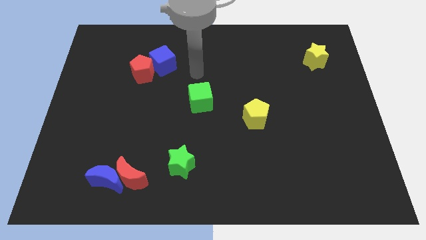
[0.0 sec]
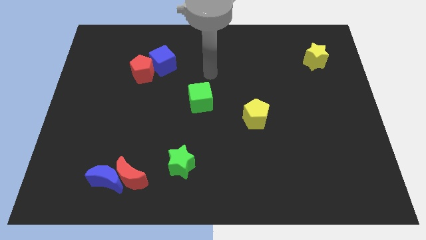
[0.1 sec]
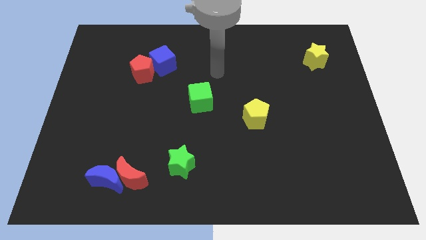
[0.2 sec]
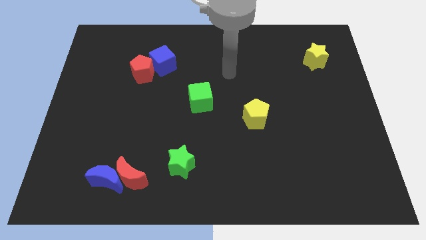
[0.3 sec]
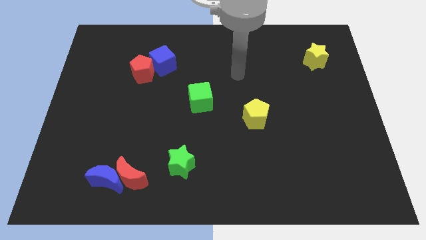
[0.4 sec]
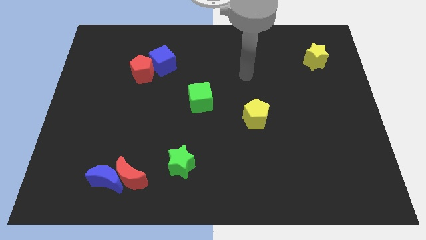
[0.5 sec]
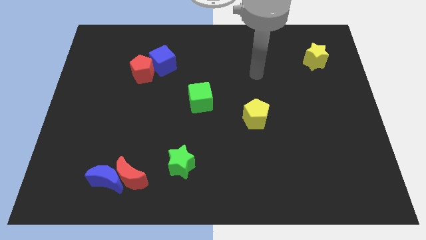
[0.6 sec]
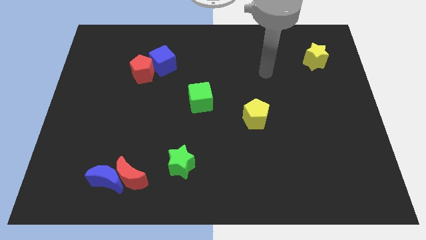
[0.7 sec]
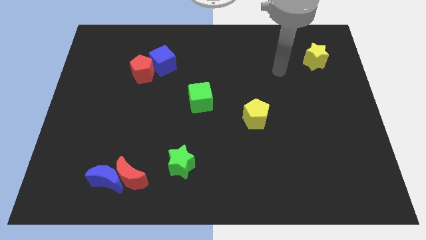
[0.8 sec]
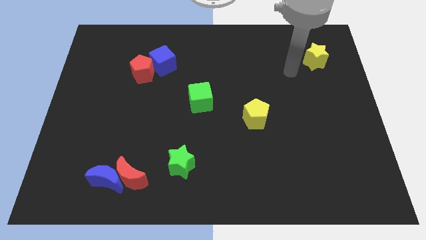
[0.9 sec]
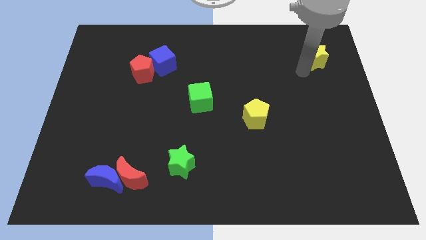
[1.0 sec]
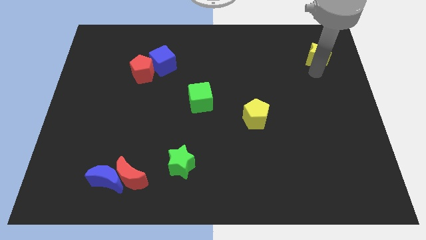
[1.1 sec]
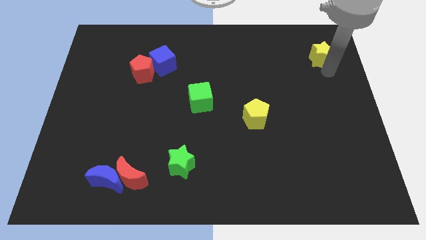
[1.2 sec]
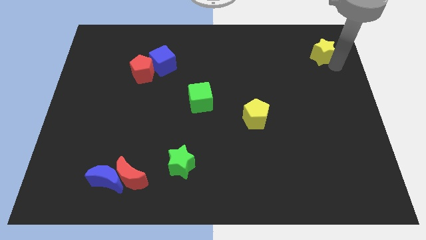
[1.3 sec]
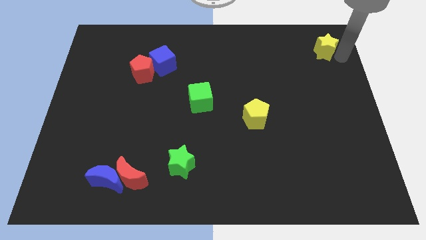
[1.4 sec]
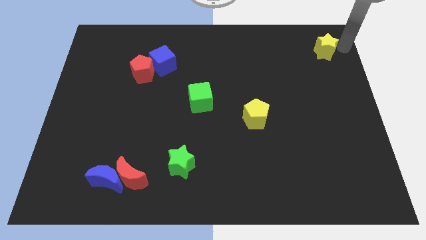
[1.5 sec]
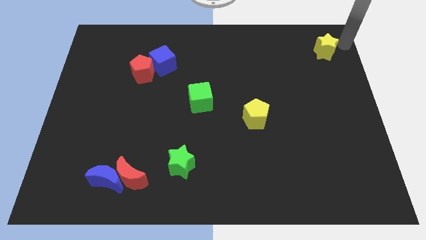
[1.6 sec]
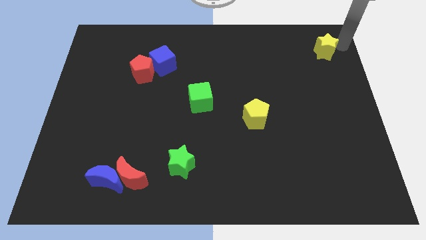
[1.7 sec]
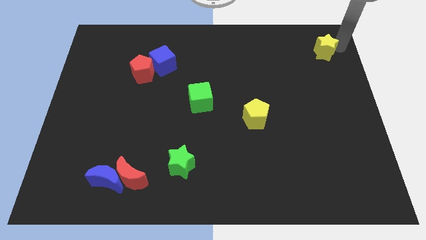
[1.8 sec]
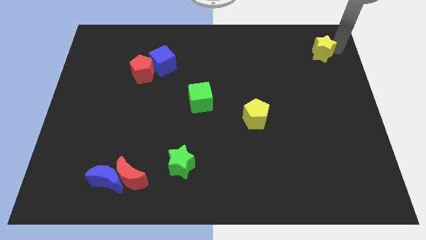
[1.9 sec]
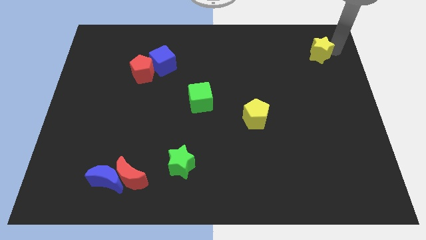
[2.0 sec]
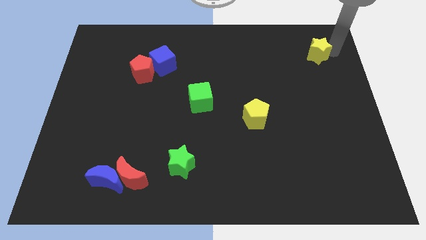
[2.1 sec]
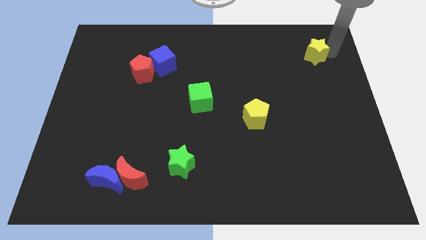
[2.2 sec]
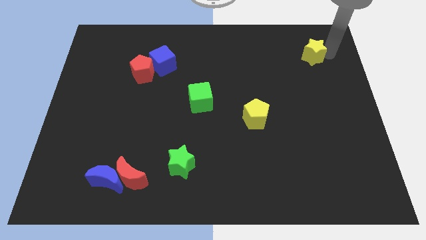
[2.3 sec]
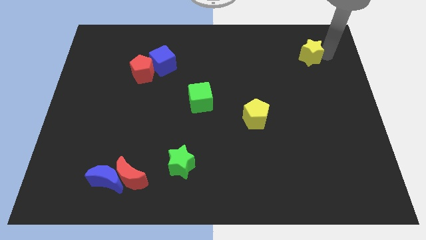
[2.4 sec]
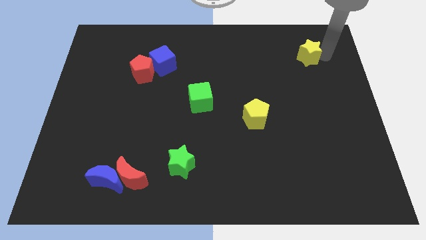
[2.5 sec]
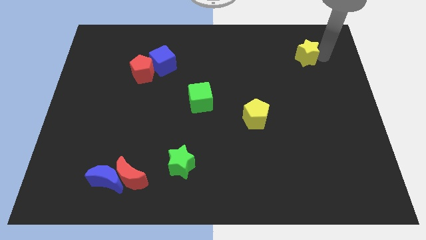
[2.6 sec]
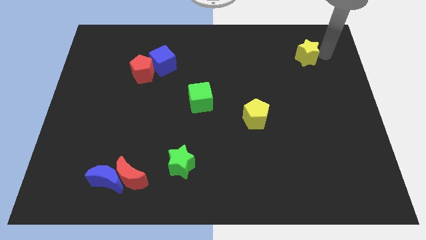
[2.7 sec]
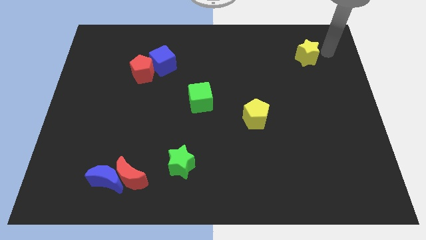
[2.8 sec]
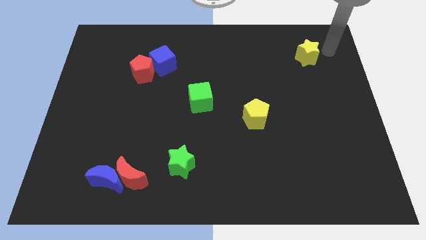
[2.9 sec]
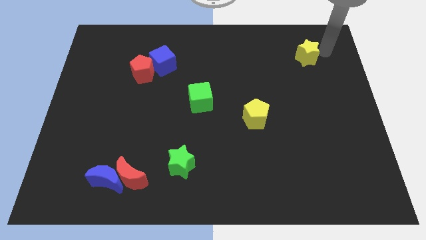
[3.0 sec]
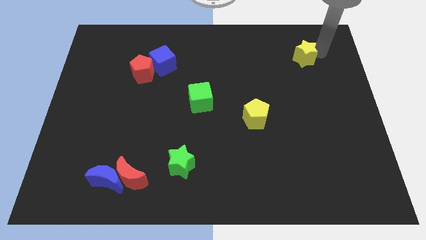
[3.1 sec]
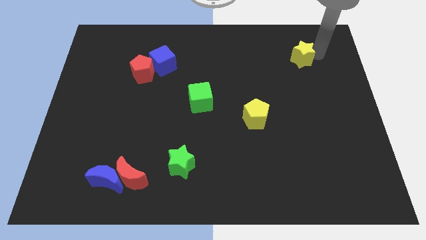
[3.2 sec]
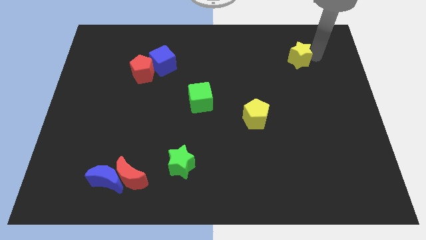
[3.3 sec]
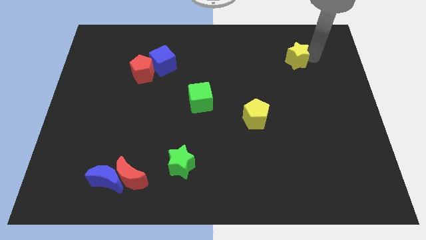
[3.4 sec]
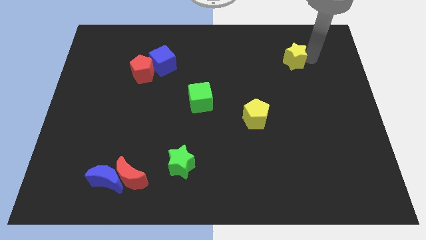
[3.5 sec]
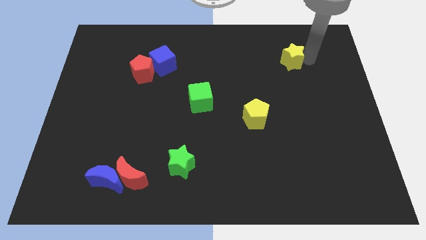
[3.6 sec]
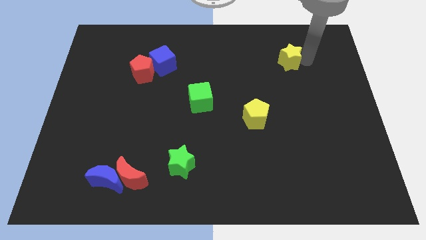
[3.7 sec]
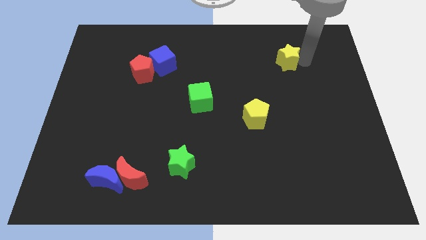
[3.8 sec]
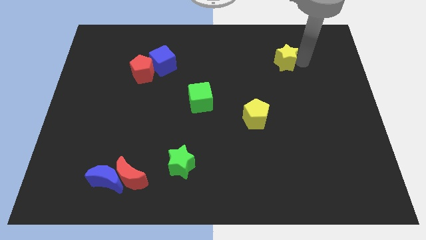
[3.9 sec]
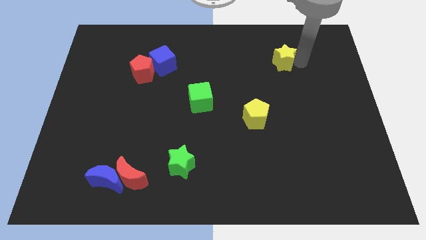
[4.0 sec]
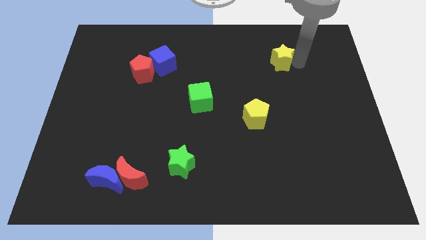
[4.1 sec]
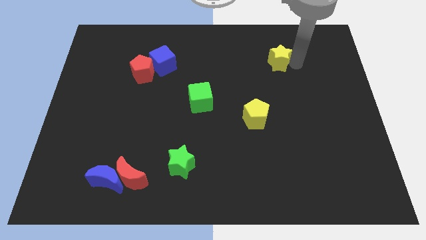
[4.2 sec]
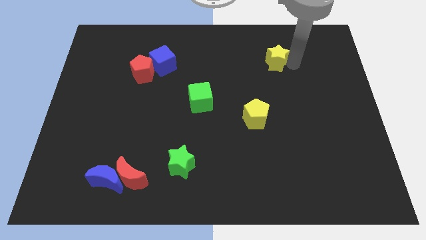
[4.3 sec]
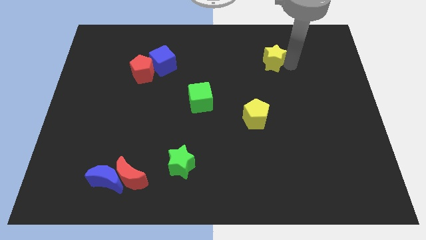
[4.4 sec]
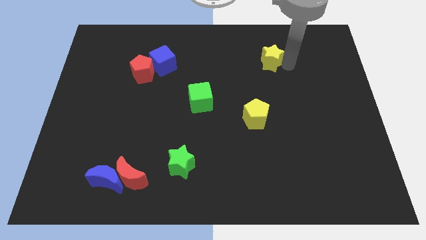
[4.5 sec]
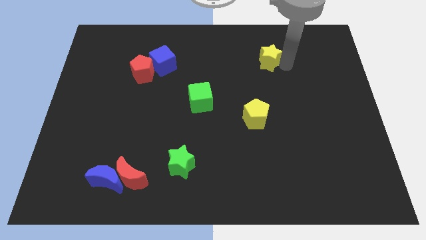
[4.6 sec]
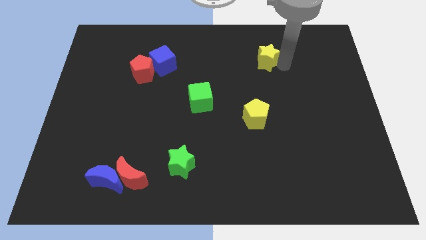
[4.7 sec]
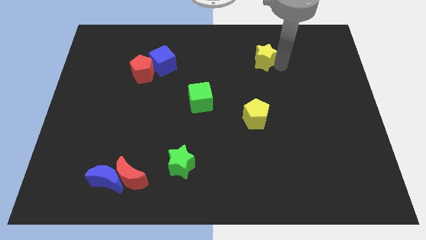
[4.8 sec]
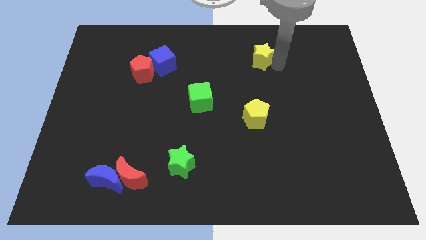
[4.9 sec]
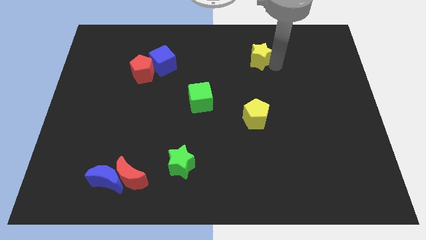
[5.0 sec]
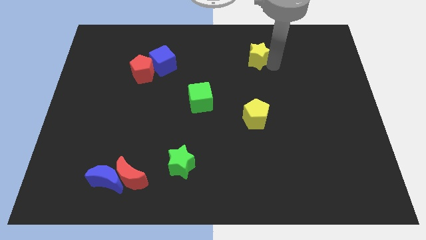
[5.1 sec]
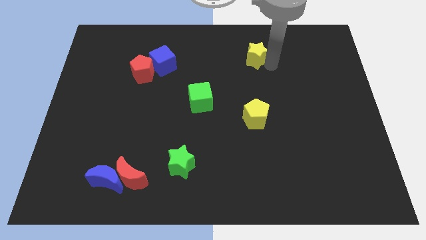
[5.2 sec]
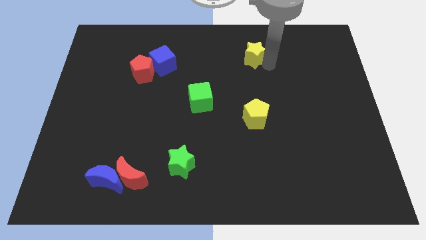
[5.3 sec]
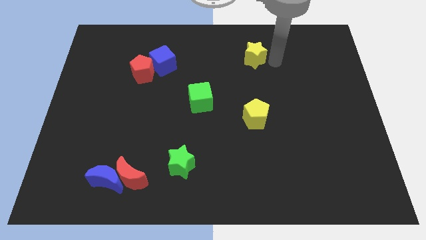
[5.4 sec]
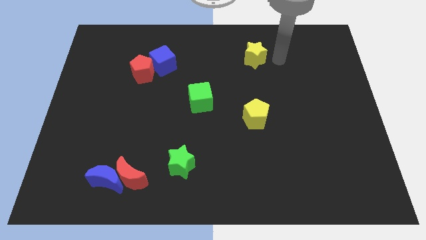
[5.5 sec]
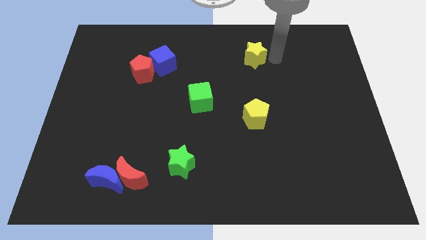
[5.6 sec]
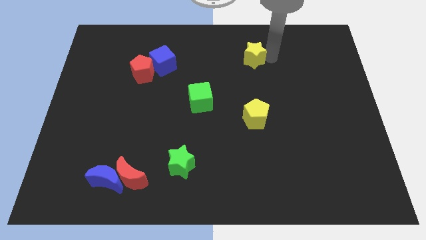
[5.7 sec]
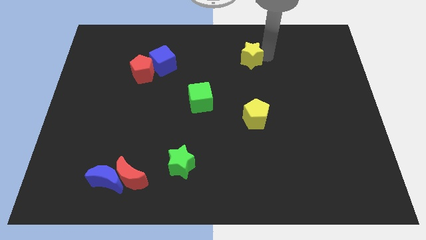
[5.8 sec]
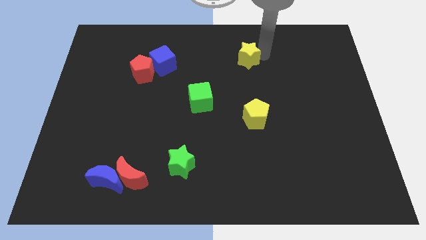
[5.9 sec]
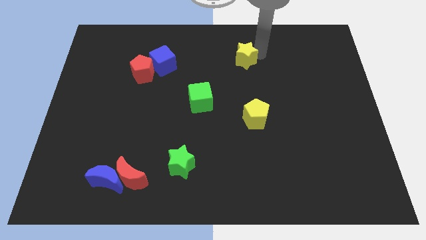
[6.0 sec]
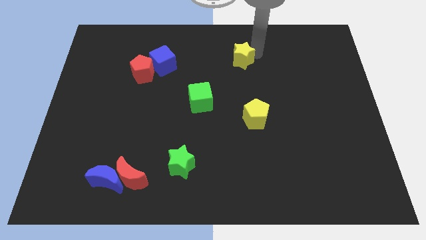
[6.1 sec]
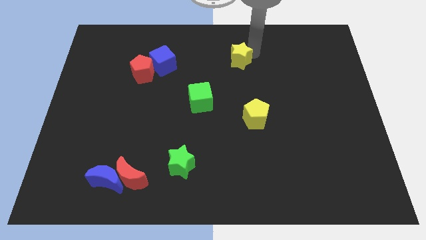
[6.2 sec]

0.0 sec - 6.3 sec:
move the yellow star to the left

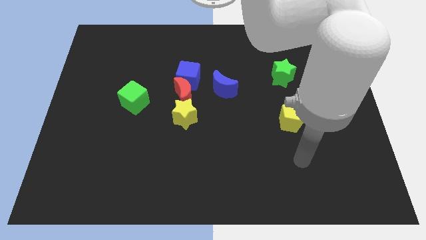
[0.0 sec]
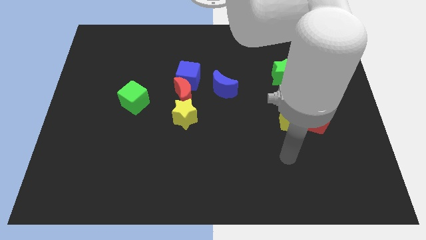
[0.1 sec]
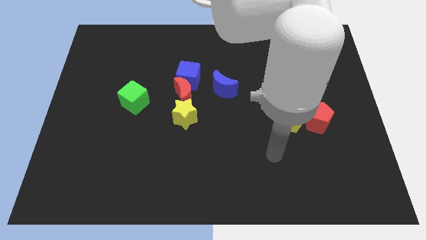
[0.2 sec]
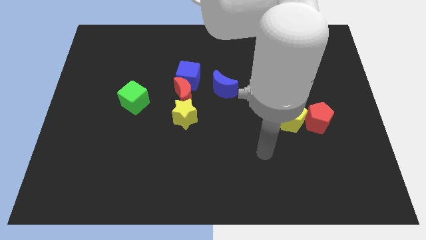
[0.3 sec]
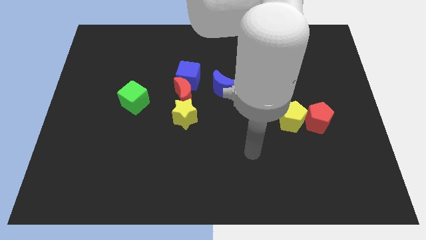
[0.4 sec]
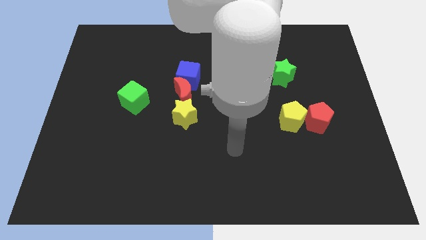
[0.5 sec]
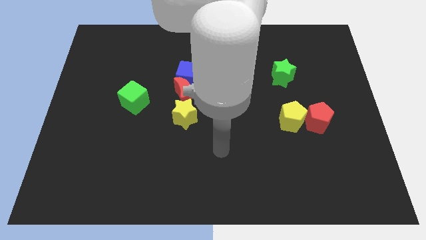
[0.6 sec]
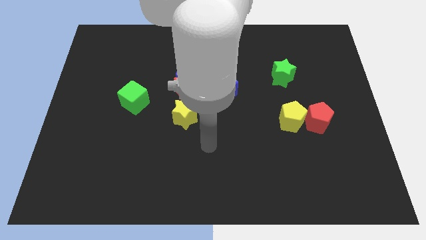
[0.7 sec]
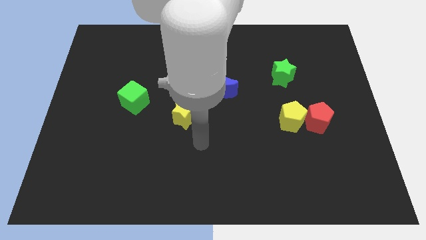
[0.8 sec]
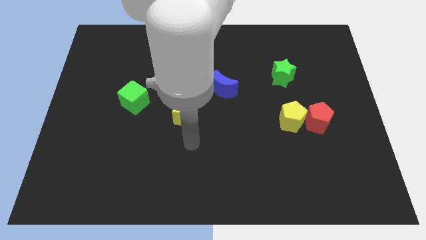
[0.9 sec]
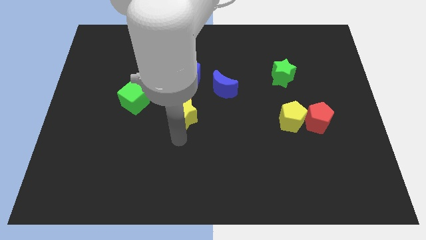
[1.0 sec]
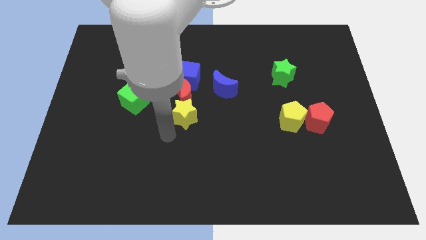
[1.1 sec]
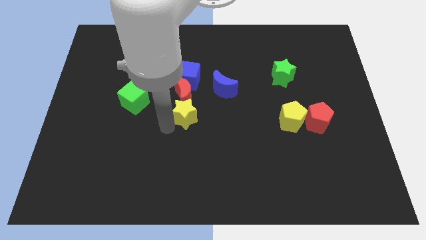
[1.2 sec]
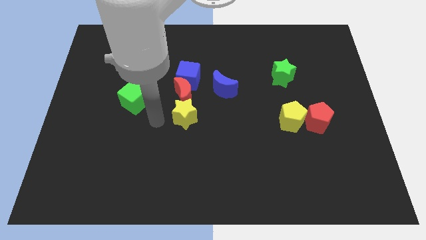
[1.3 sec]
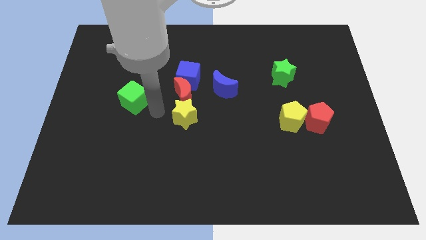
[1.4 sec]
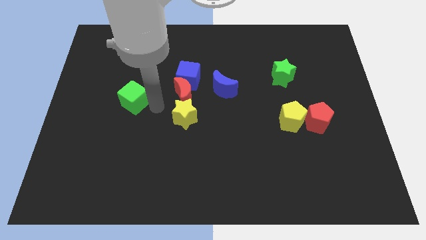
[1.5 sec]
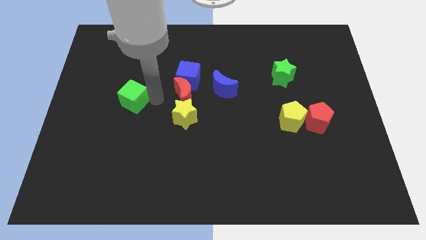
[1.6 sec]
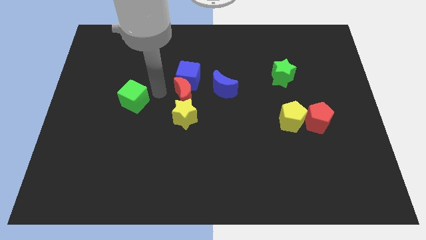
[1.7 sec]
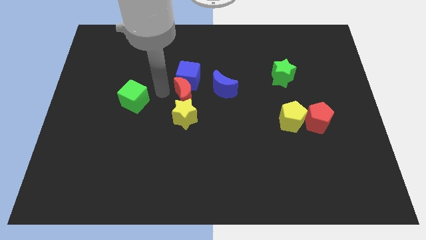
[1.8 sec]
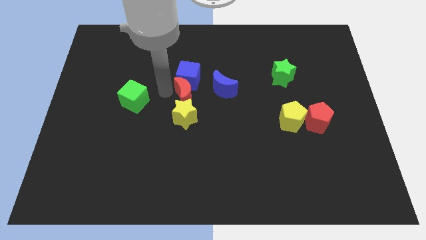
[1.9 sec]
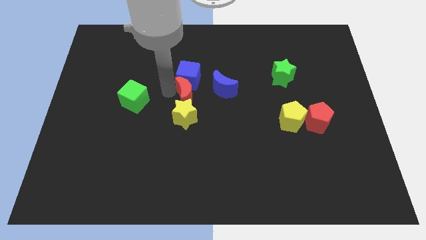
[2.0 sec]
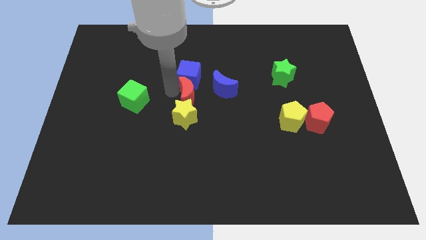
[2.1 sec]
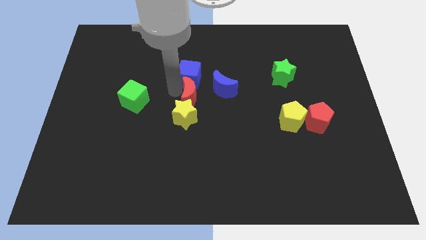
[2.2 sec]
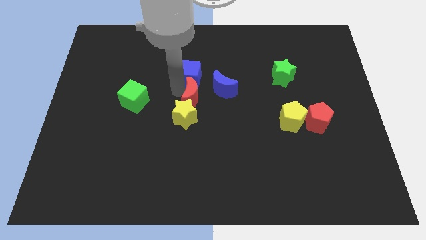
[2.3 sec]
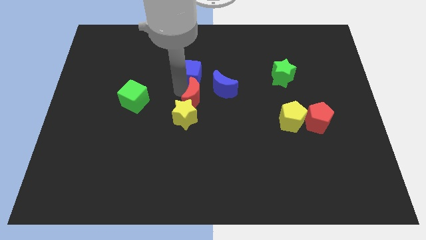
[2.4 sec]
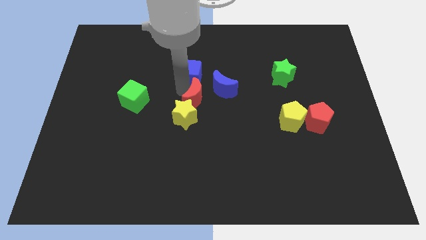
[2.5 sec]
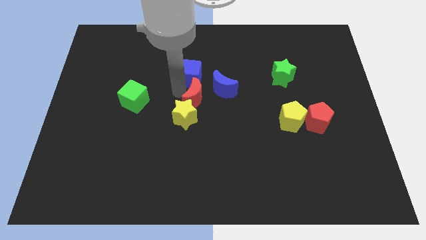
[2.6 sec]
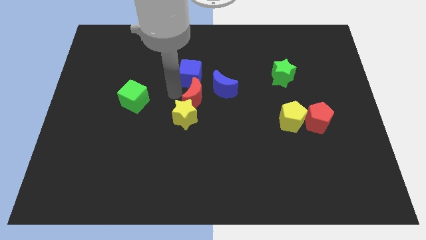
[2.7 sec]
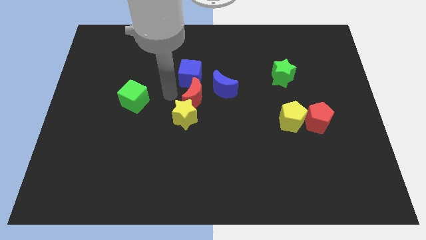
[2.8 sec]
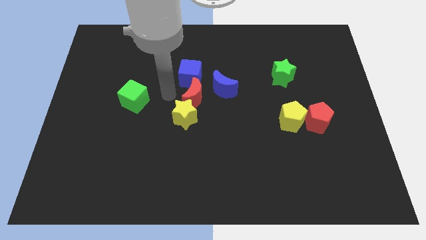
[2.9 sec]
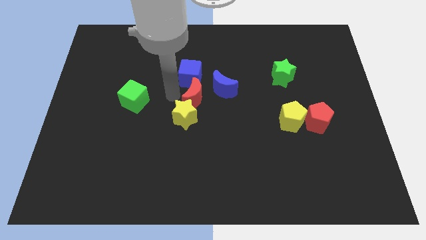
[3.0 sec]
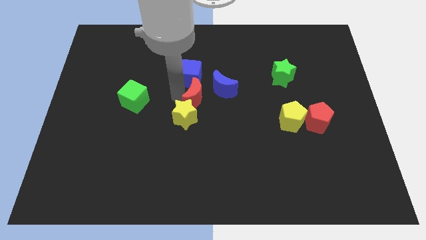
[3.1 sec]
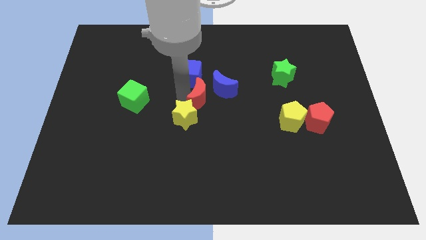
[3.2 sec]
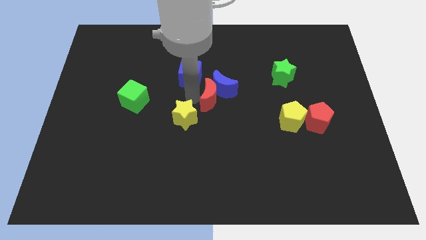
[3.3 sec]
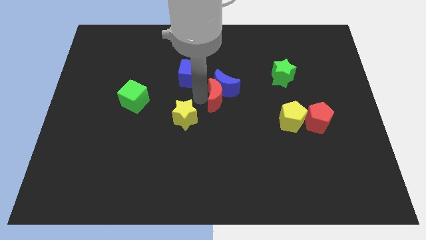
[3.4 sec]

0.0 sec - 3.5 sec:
slide the red moon to the right somewhat
